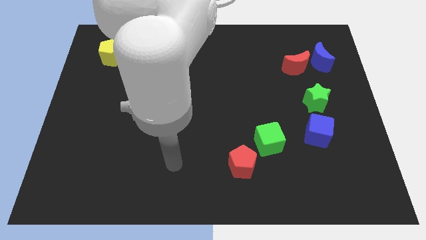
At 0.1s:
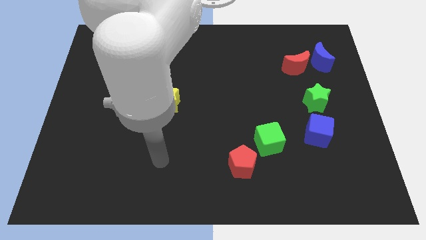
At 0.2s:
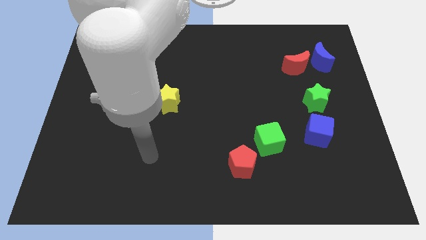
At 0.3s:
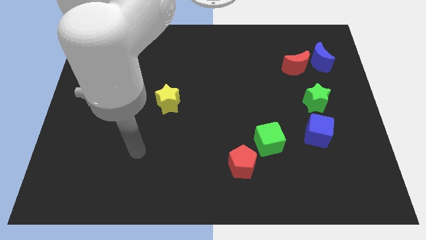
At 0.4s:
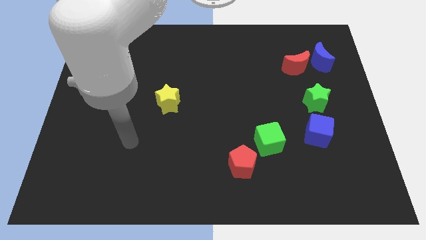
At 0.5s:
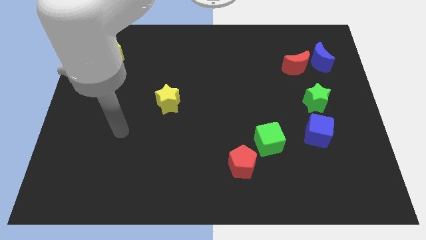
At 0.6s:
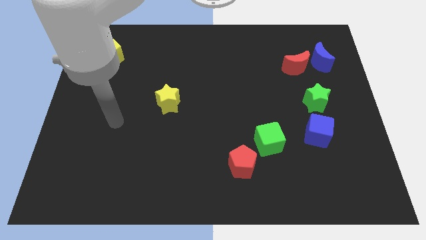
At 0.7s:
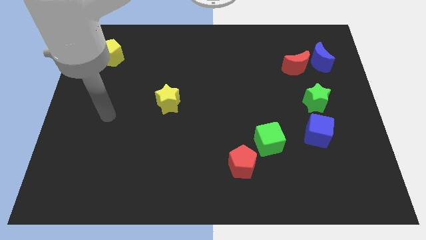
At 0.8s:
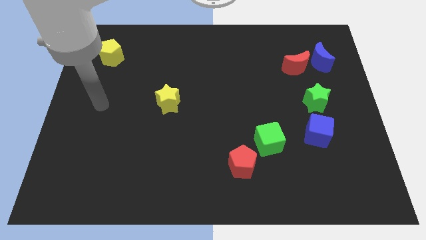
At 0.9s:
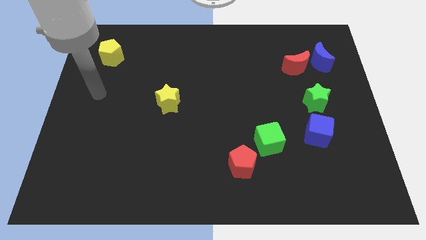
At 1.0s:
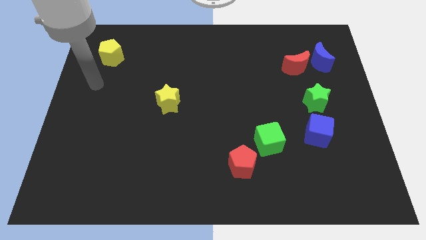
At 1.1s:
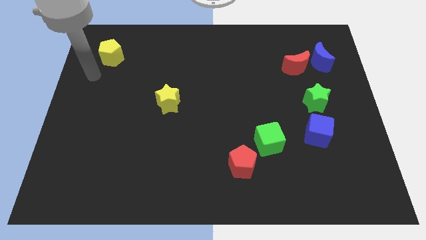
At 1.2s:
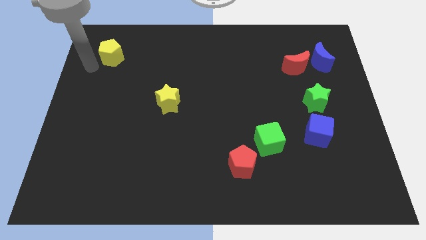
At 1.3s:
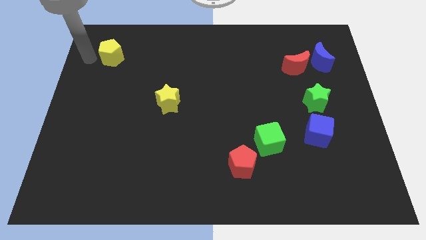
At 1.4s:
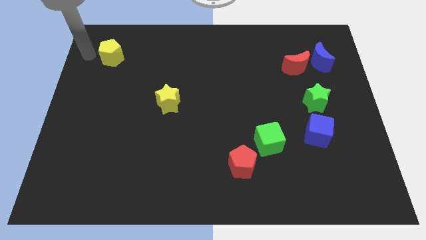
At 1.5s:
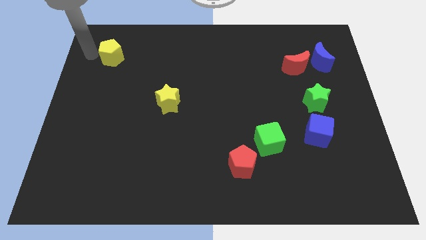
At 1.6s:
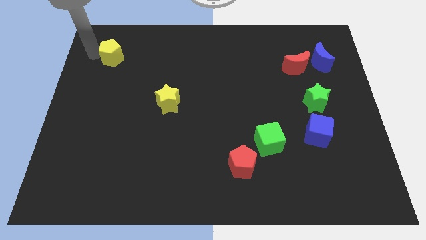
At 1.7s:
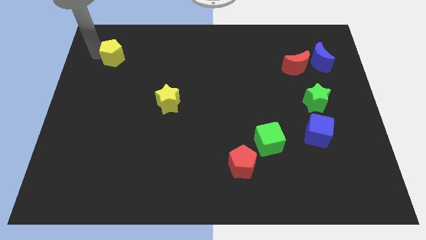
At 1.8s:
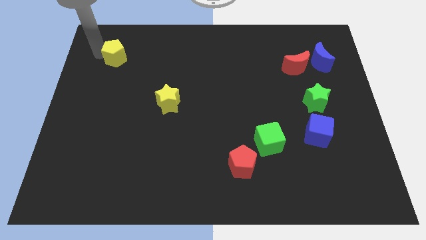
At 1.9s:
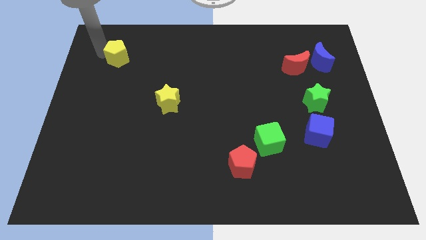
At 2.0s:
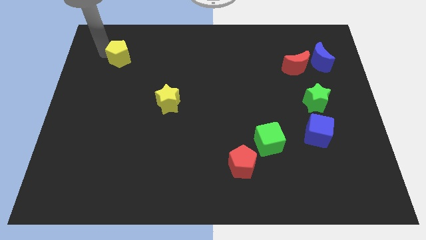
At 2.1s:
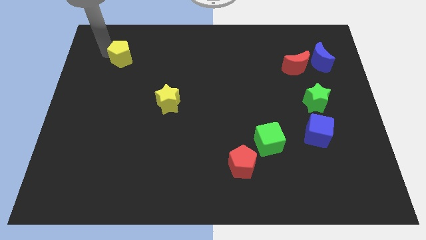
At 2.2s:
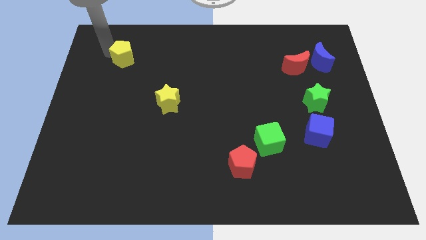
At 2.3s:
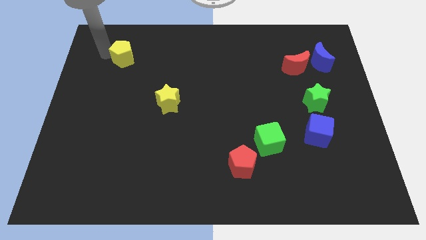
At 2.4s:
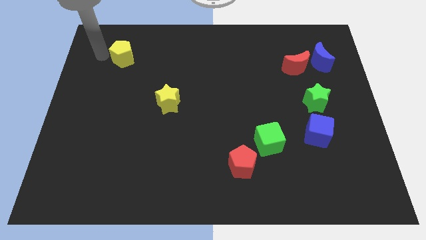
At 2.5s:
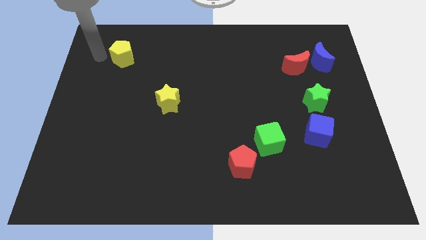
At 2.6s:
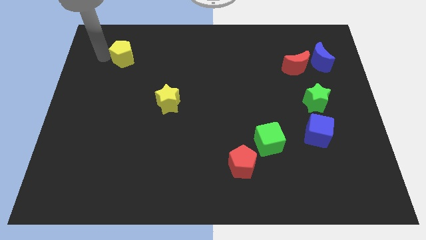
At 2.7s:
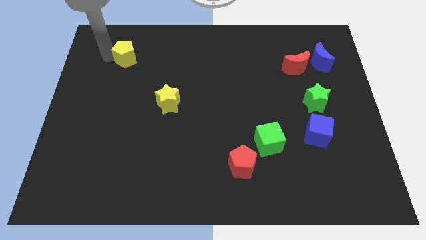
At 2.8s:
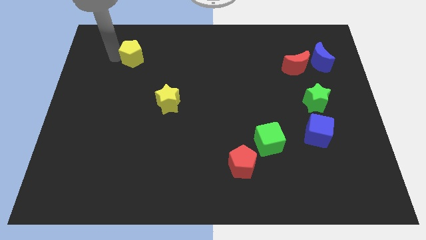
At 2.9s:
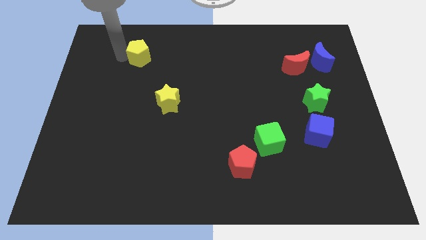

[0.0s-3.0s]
move the yellow pentagon right somewhat

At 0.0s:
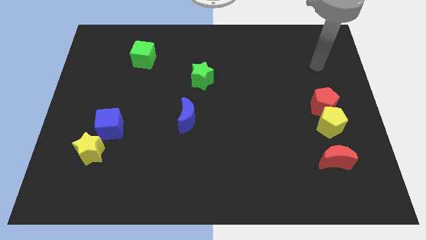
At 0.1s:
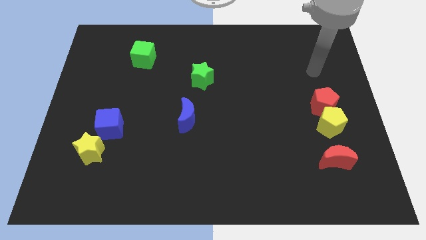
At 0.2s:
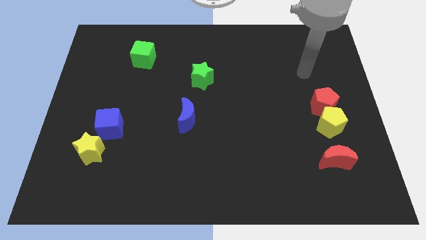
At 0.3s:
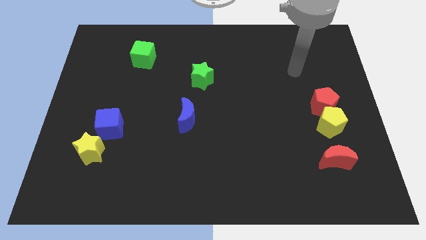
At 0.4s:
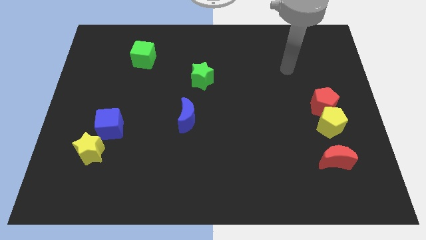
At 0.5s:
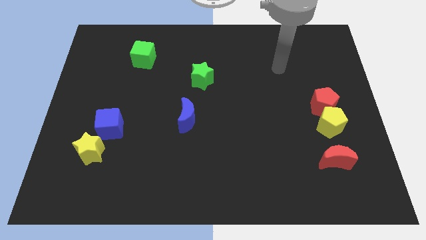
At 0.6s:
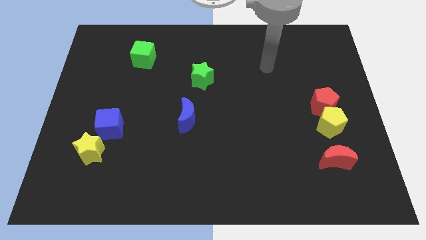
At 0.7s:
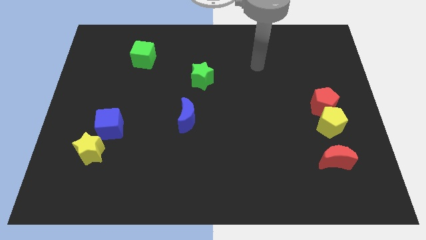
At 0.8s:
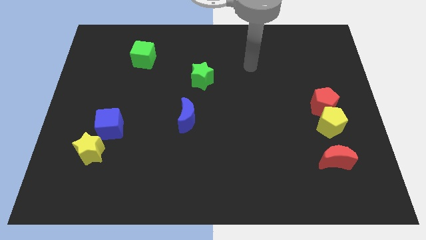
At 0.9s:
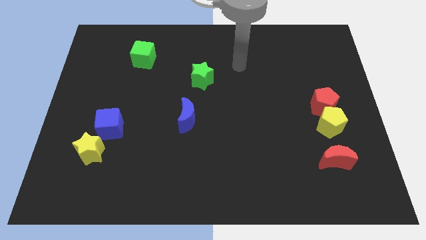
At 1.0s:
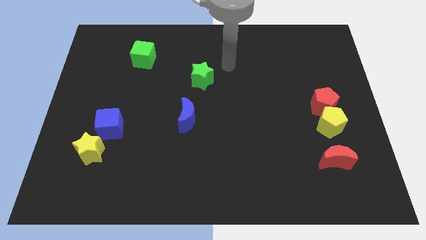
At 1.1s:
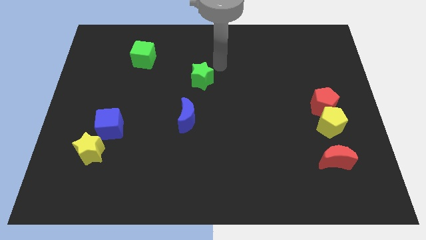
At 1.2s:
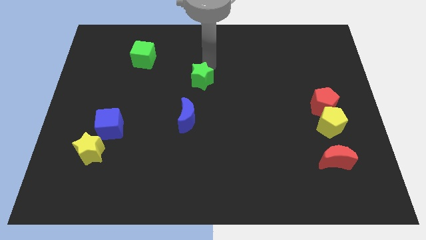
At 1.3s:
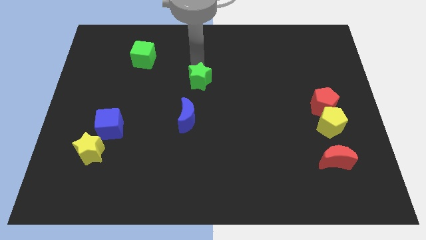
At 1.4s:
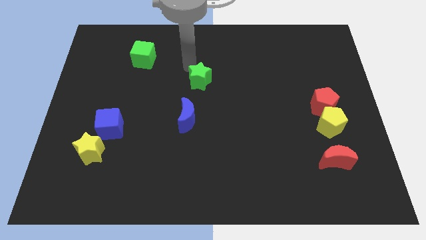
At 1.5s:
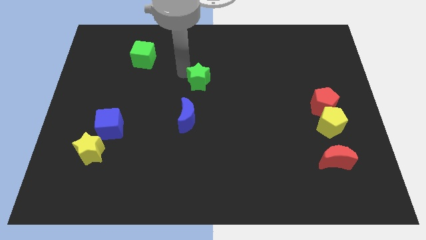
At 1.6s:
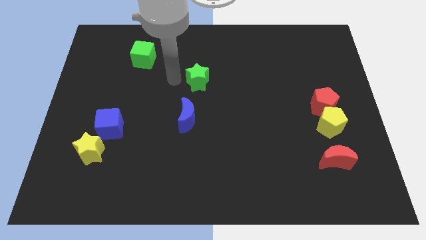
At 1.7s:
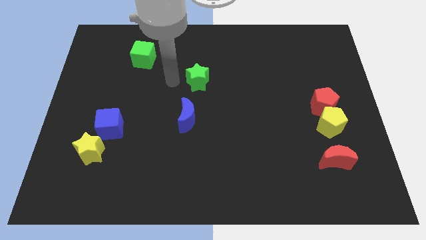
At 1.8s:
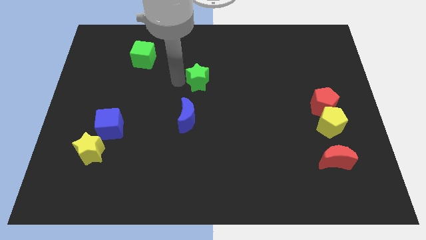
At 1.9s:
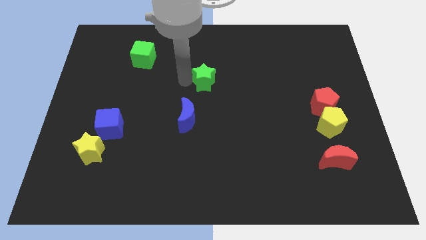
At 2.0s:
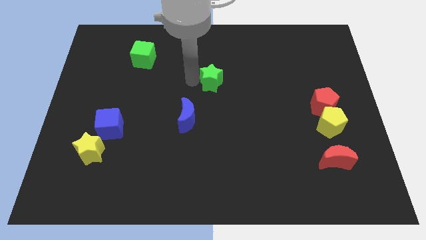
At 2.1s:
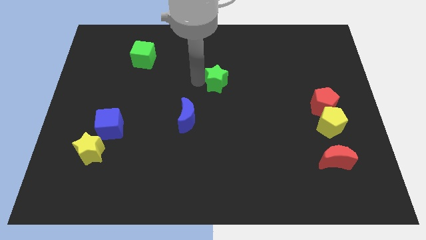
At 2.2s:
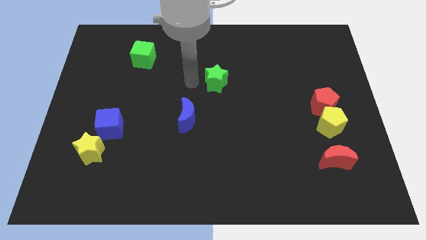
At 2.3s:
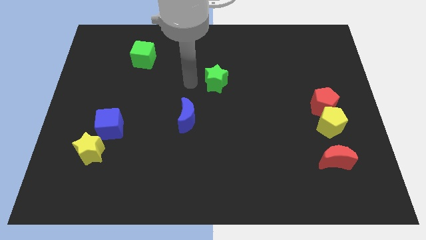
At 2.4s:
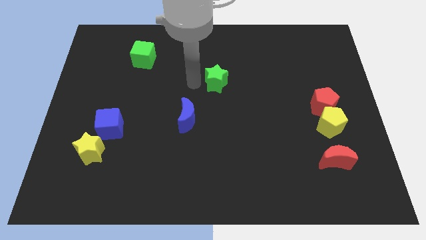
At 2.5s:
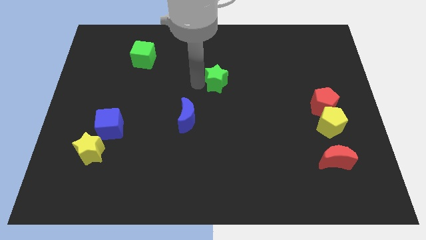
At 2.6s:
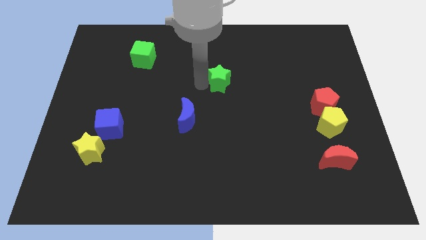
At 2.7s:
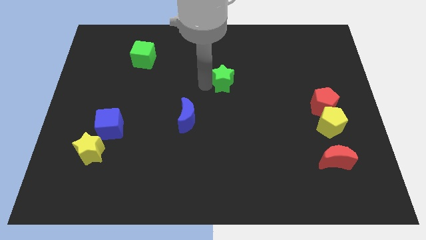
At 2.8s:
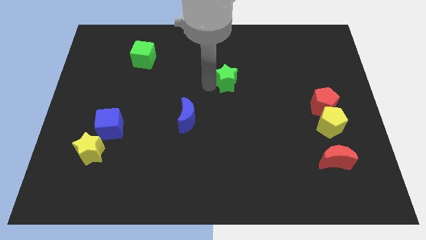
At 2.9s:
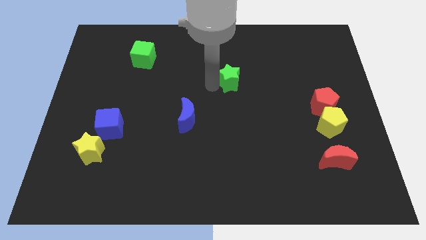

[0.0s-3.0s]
slide the green star somewhat to the right

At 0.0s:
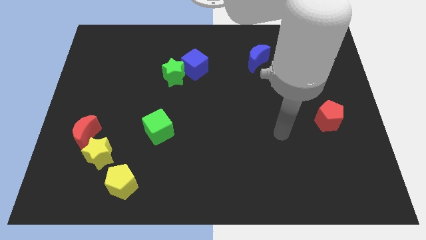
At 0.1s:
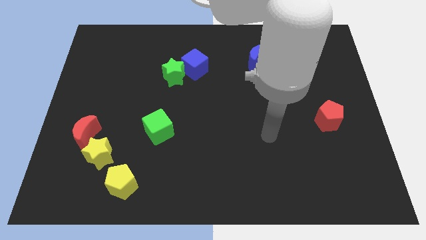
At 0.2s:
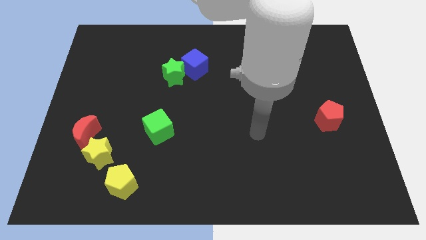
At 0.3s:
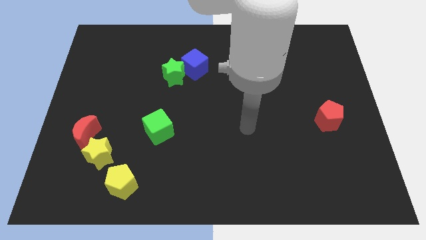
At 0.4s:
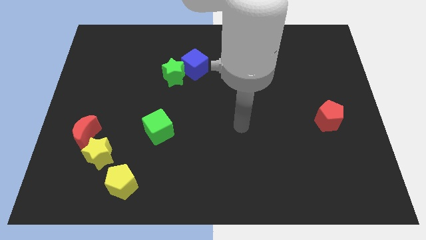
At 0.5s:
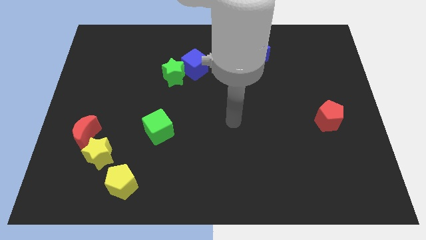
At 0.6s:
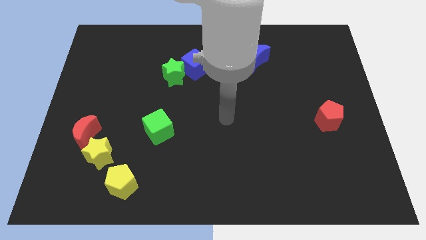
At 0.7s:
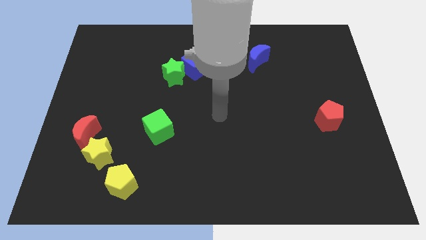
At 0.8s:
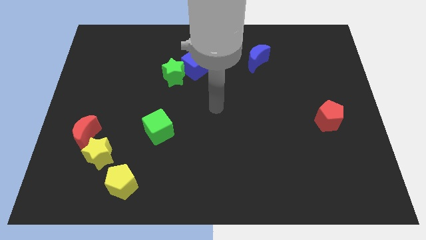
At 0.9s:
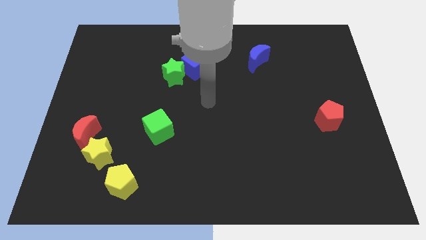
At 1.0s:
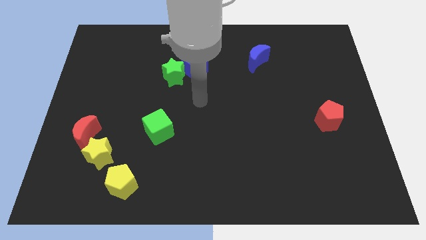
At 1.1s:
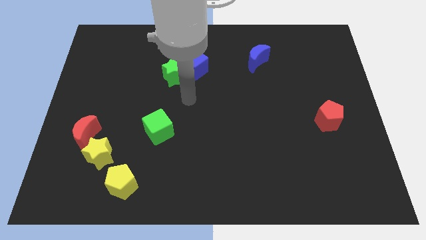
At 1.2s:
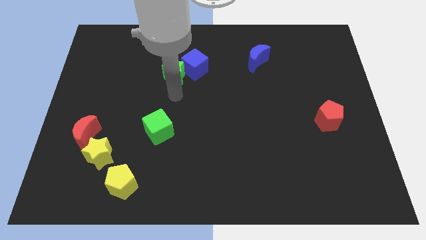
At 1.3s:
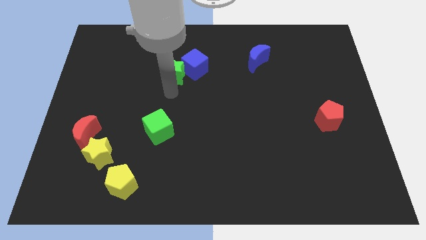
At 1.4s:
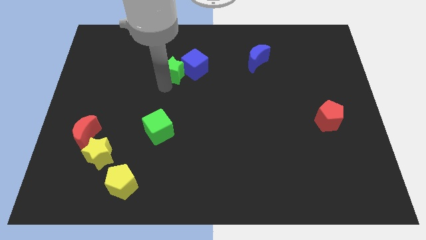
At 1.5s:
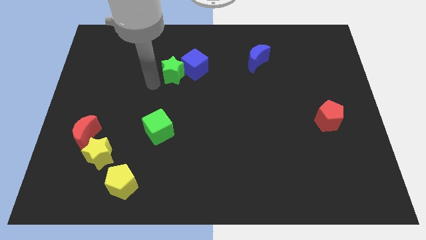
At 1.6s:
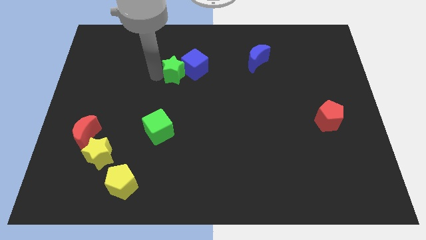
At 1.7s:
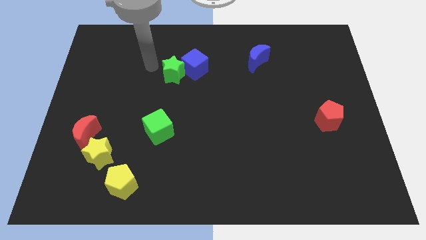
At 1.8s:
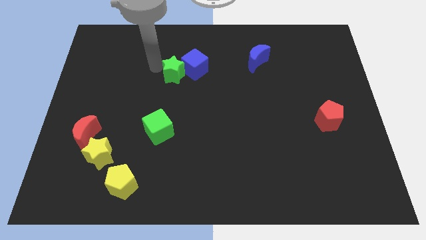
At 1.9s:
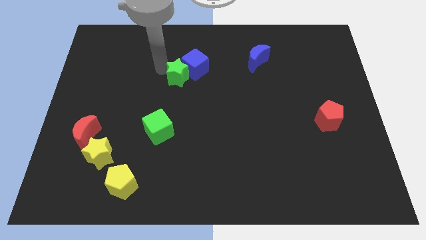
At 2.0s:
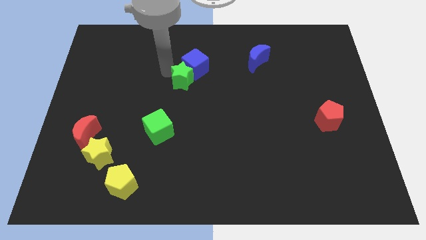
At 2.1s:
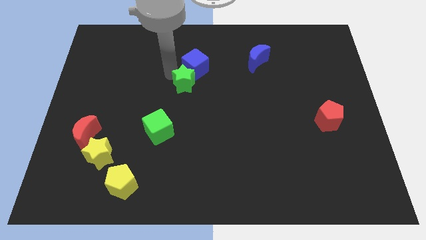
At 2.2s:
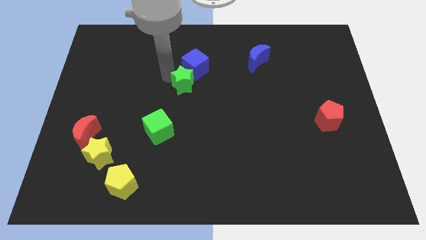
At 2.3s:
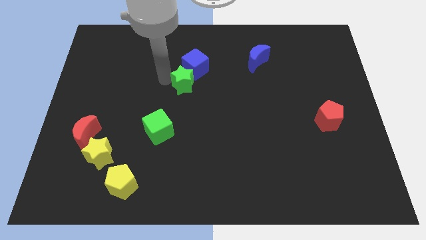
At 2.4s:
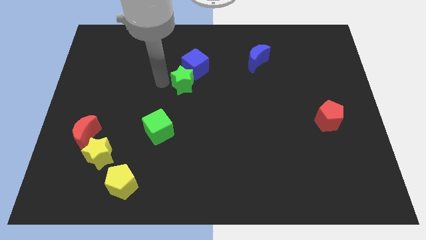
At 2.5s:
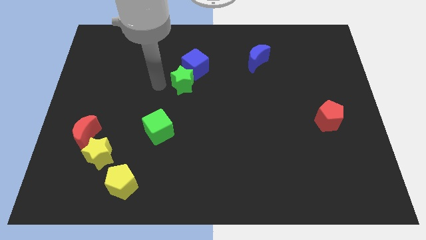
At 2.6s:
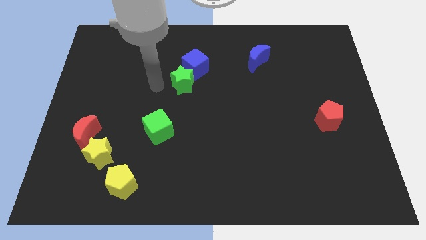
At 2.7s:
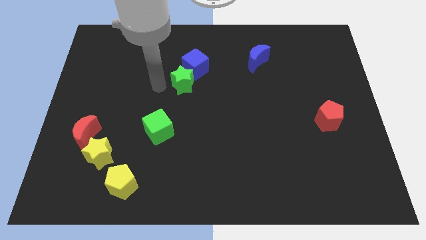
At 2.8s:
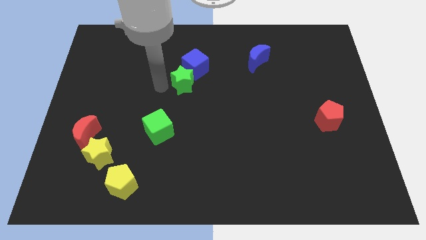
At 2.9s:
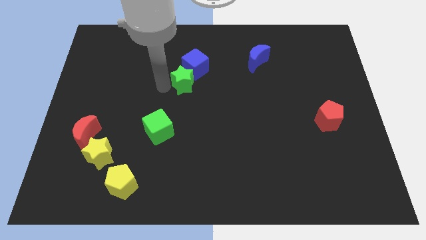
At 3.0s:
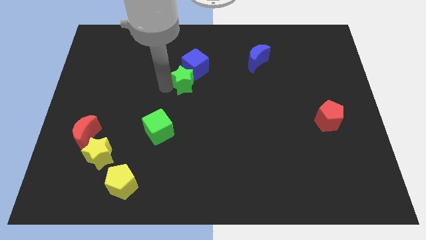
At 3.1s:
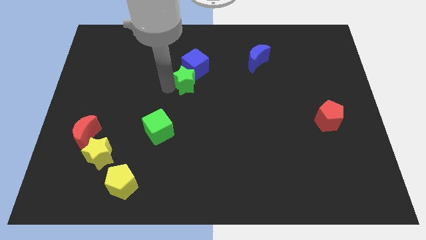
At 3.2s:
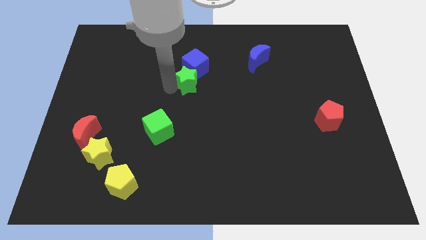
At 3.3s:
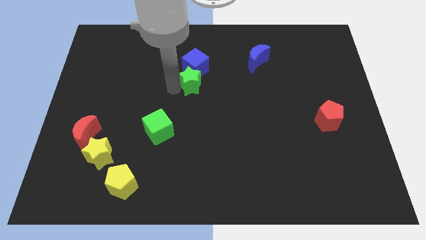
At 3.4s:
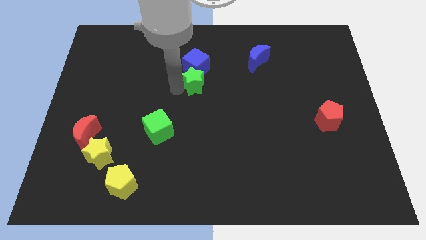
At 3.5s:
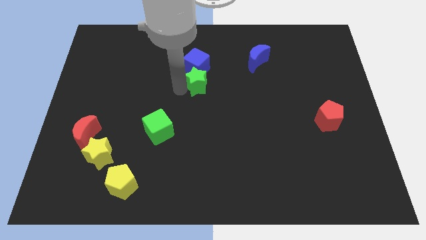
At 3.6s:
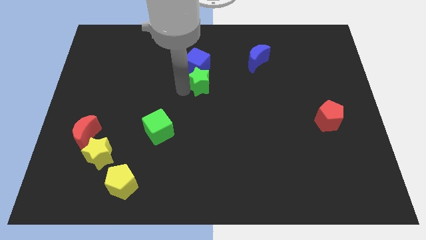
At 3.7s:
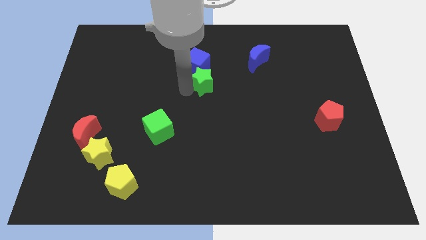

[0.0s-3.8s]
push the green star to the right a little
